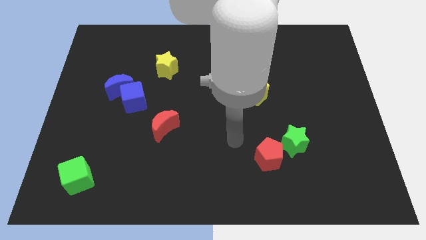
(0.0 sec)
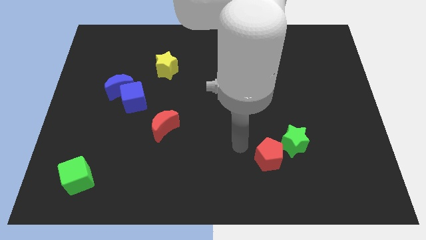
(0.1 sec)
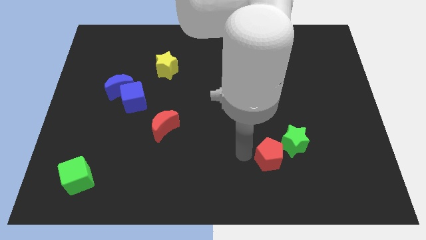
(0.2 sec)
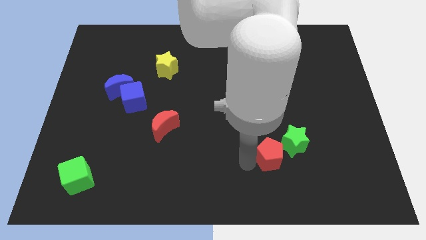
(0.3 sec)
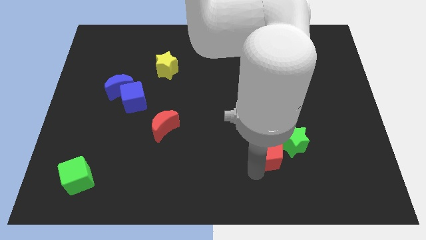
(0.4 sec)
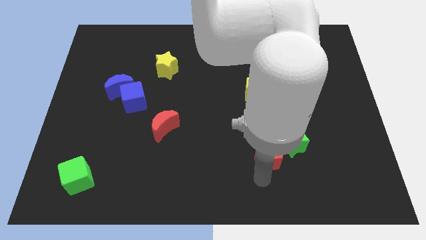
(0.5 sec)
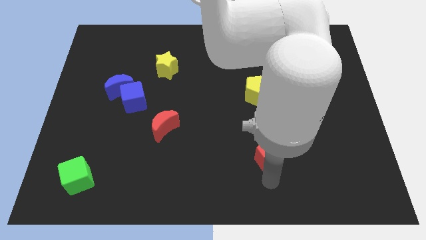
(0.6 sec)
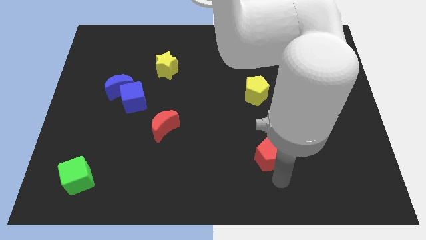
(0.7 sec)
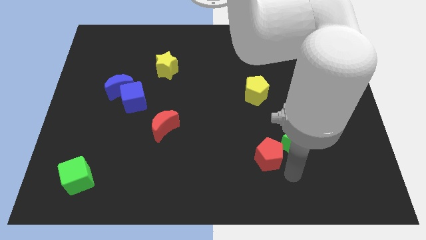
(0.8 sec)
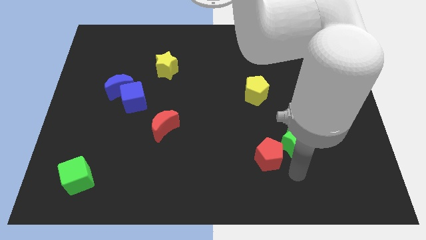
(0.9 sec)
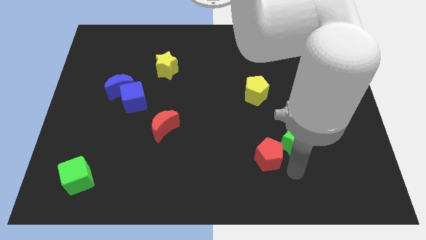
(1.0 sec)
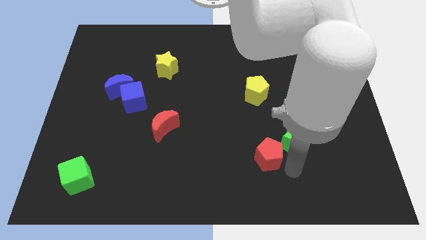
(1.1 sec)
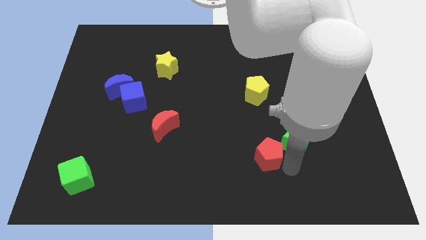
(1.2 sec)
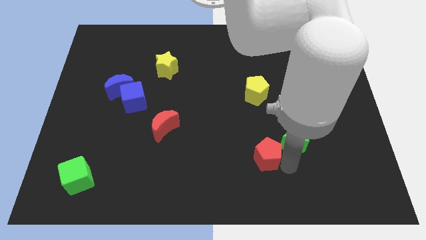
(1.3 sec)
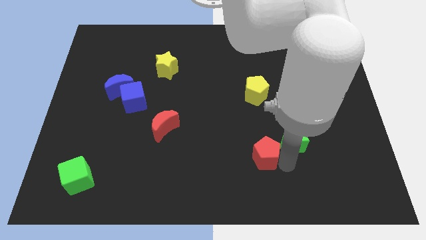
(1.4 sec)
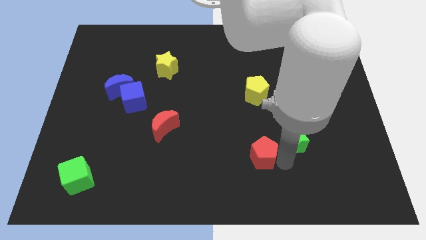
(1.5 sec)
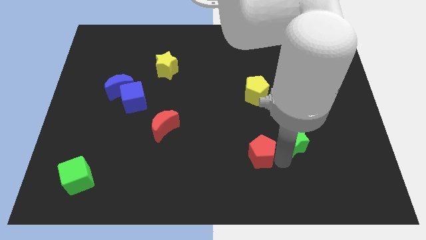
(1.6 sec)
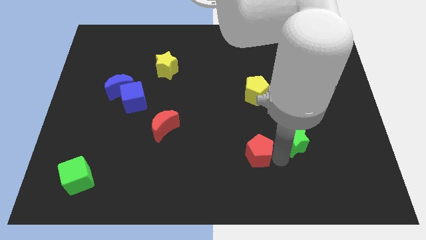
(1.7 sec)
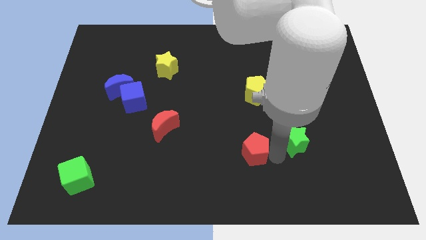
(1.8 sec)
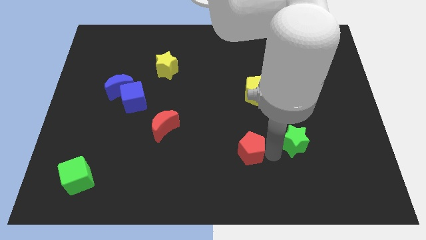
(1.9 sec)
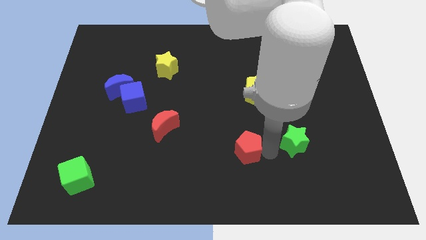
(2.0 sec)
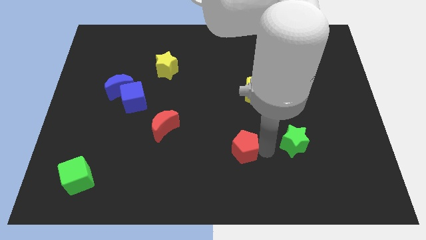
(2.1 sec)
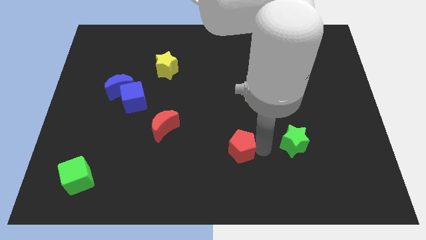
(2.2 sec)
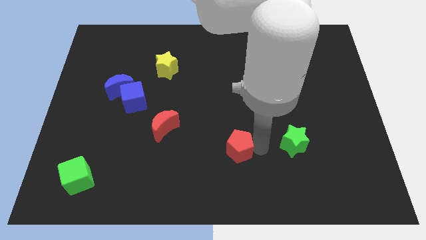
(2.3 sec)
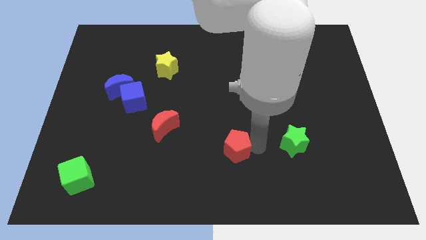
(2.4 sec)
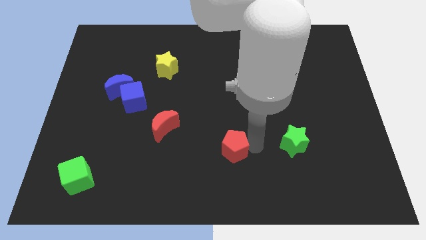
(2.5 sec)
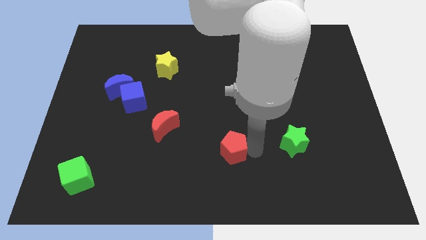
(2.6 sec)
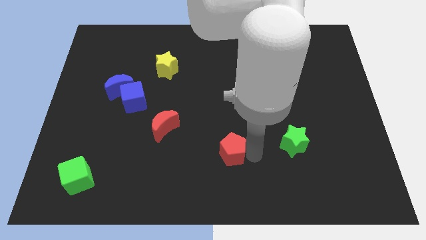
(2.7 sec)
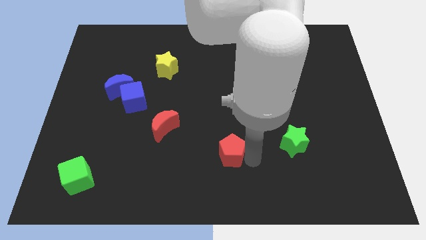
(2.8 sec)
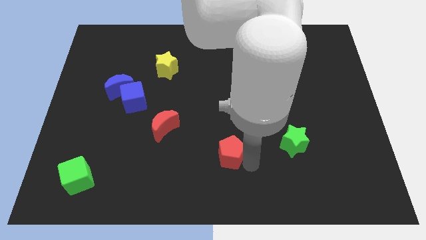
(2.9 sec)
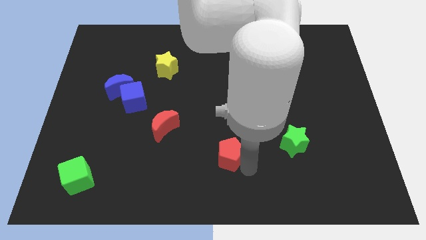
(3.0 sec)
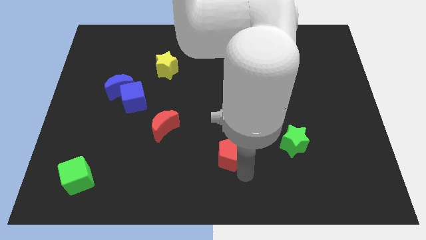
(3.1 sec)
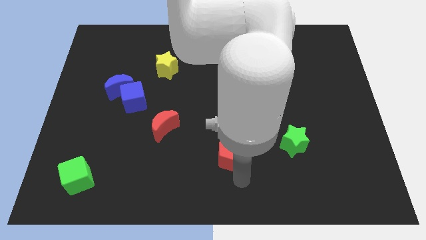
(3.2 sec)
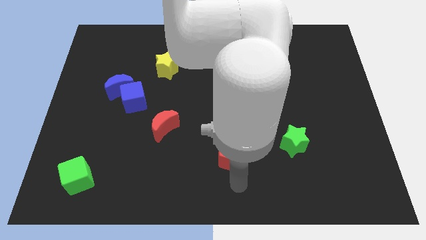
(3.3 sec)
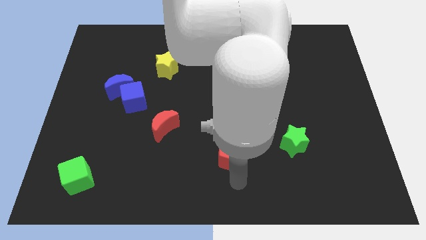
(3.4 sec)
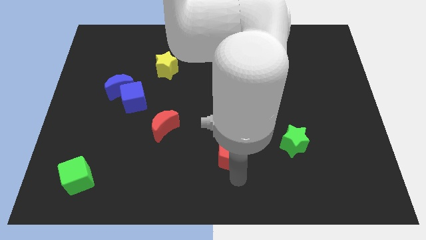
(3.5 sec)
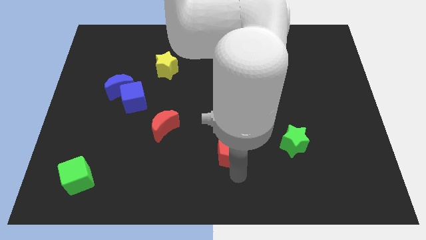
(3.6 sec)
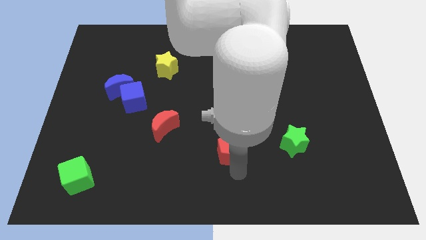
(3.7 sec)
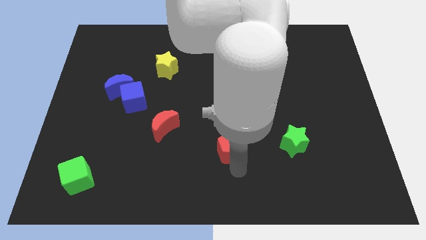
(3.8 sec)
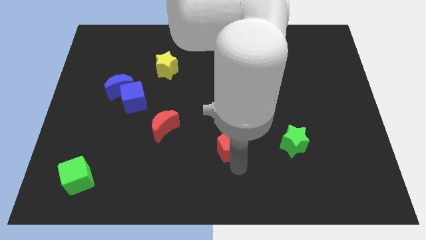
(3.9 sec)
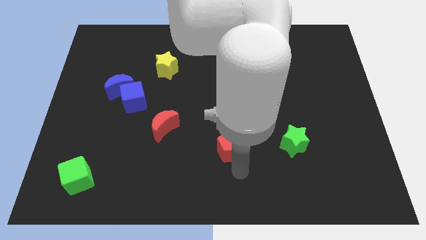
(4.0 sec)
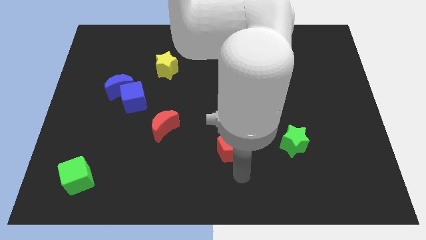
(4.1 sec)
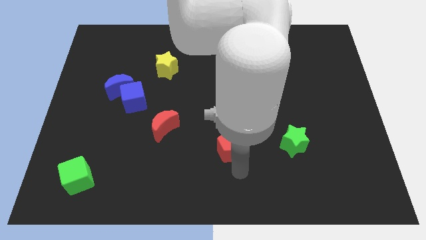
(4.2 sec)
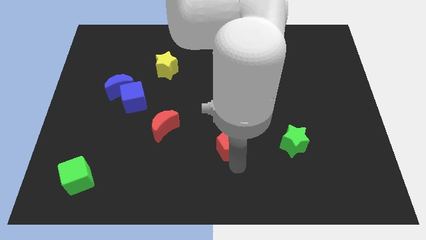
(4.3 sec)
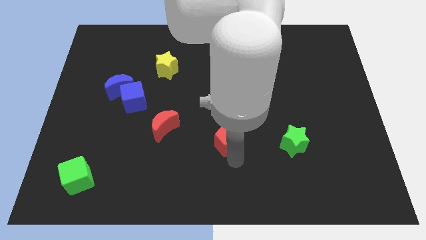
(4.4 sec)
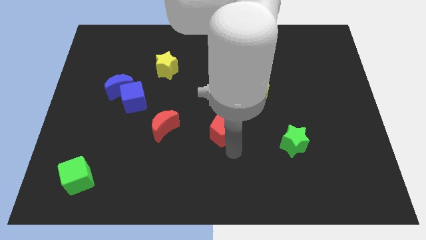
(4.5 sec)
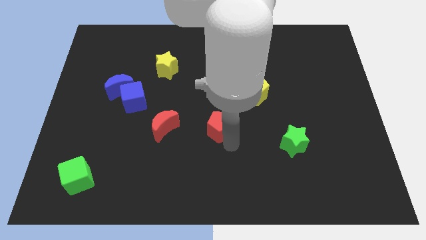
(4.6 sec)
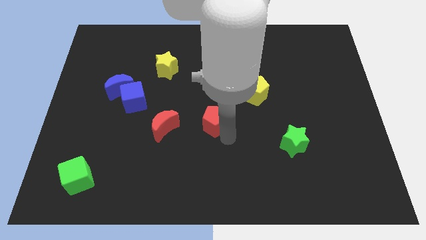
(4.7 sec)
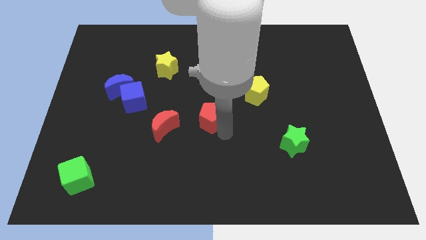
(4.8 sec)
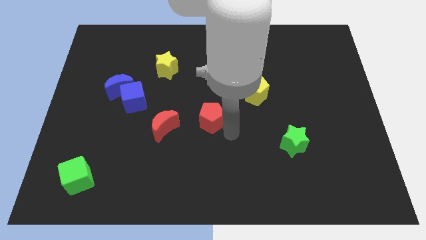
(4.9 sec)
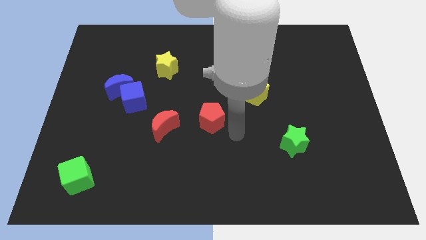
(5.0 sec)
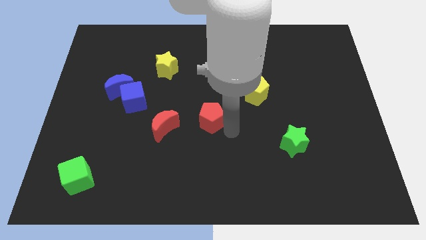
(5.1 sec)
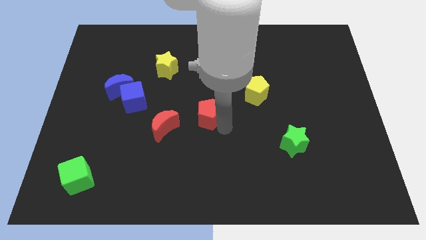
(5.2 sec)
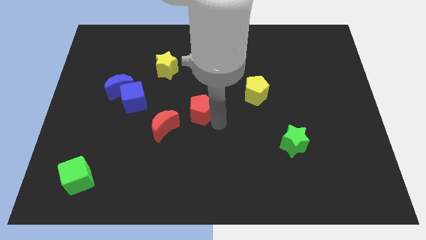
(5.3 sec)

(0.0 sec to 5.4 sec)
move the red pentagon to the top right side of the red moon
